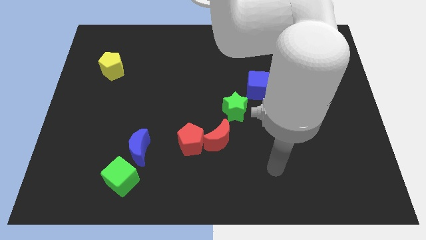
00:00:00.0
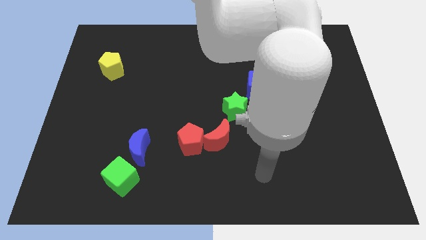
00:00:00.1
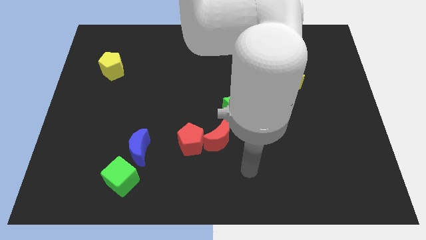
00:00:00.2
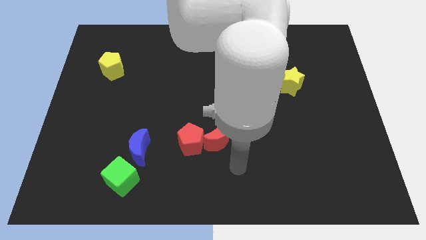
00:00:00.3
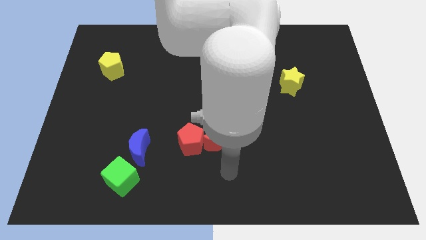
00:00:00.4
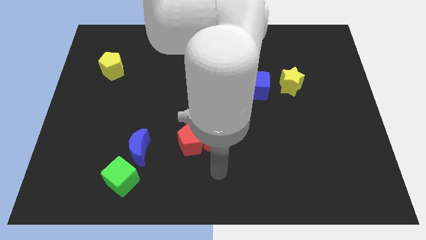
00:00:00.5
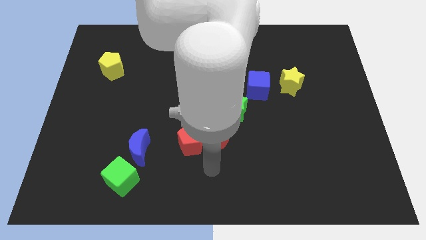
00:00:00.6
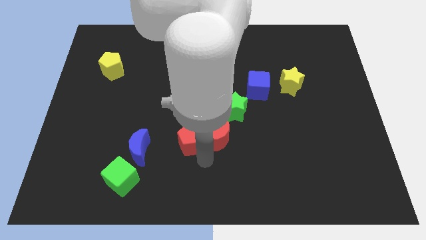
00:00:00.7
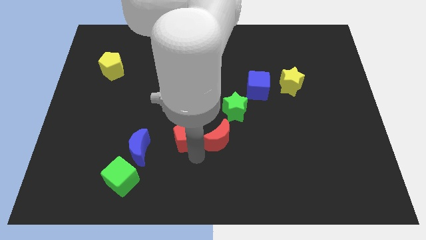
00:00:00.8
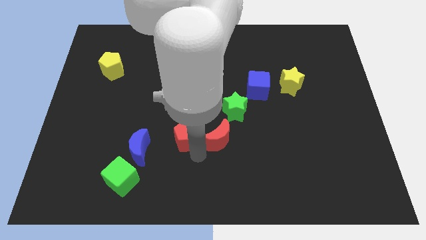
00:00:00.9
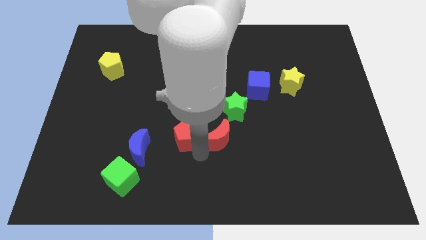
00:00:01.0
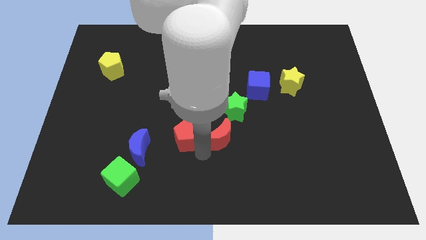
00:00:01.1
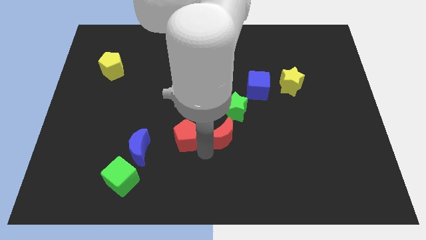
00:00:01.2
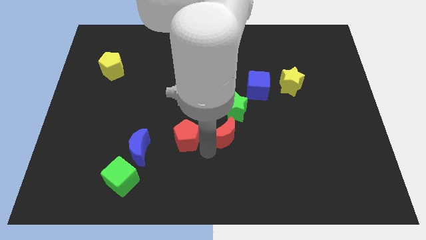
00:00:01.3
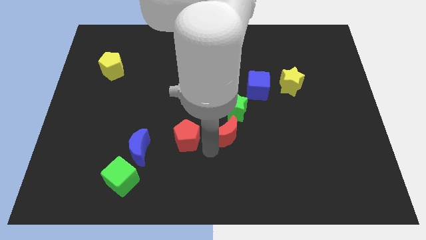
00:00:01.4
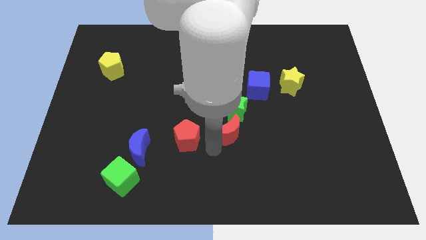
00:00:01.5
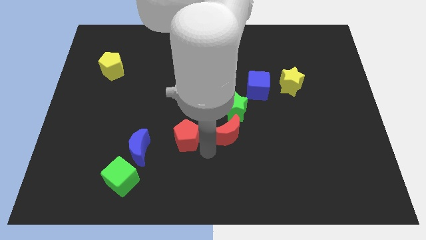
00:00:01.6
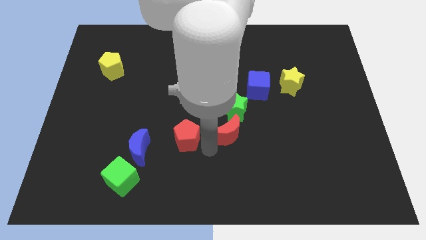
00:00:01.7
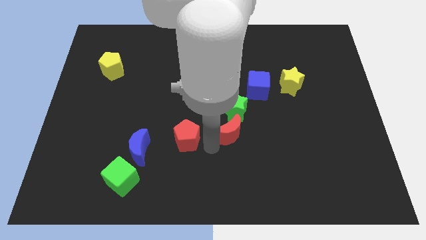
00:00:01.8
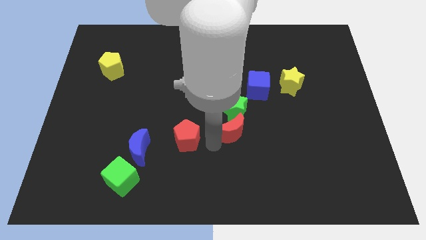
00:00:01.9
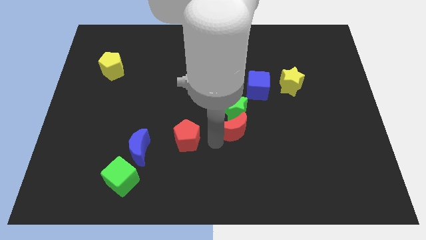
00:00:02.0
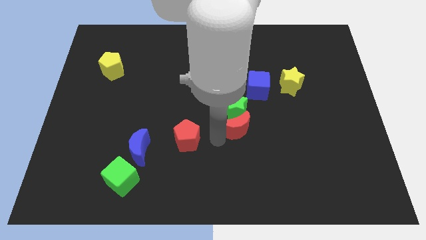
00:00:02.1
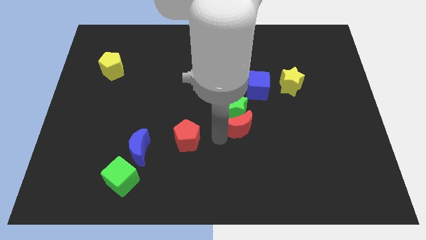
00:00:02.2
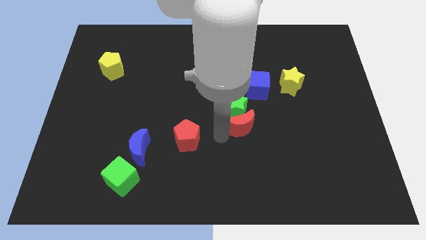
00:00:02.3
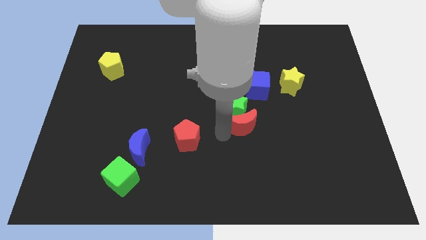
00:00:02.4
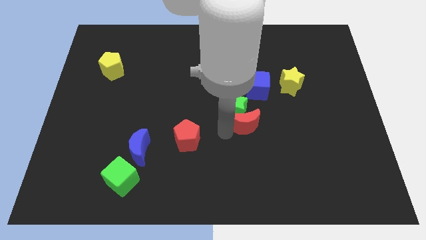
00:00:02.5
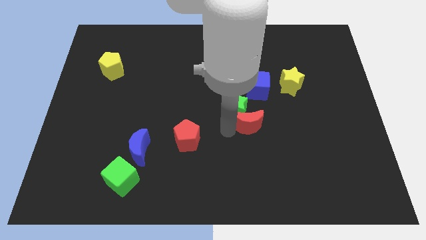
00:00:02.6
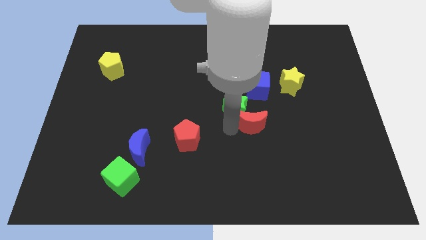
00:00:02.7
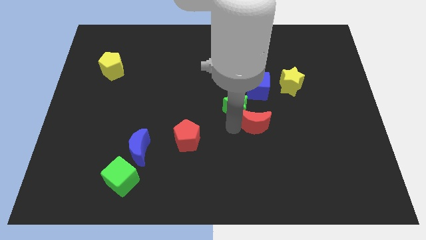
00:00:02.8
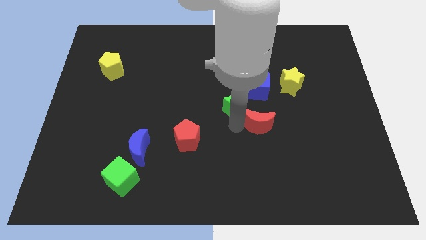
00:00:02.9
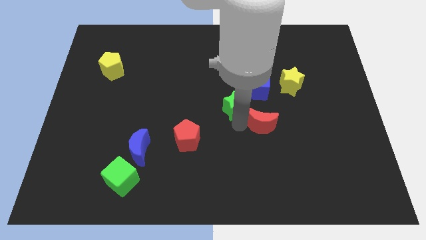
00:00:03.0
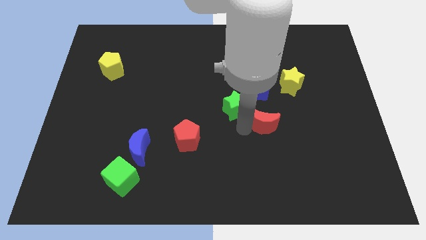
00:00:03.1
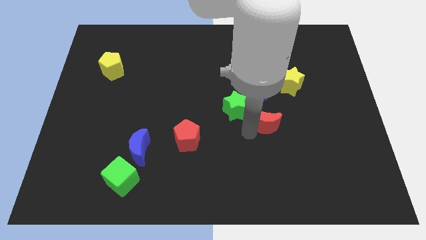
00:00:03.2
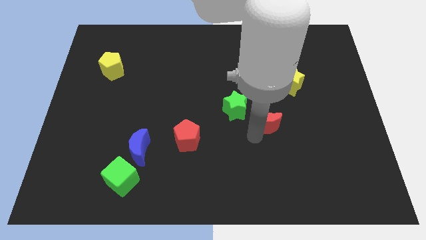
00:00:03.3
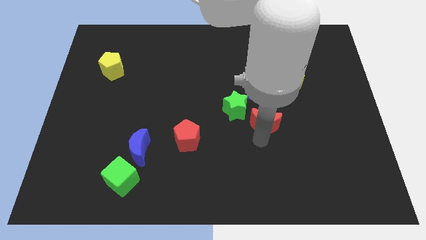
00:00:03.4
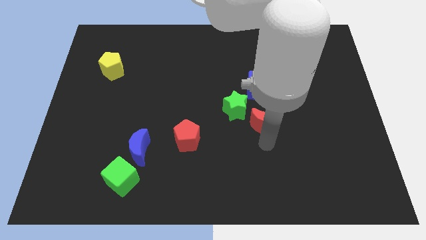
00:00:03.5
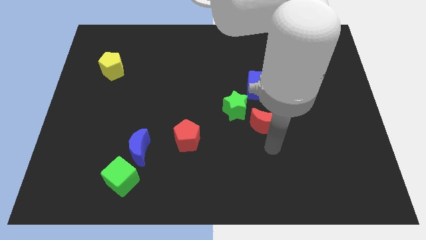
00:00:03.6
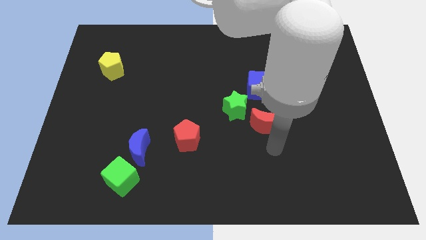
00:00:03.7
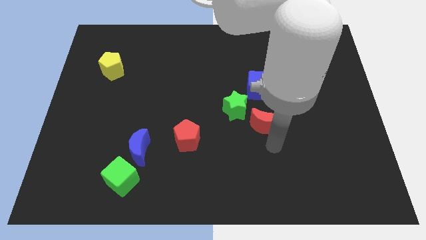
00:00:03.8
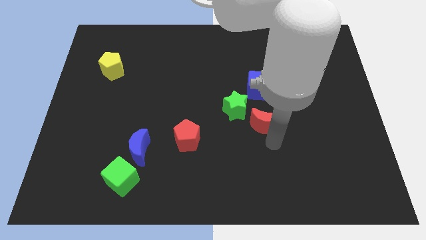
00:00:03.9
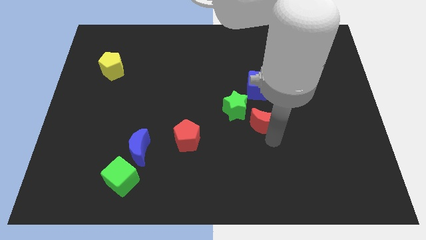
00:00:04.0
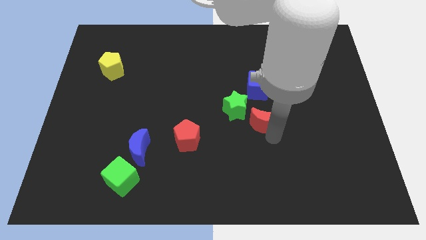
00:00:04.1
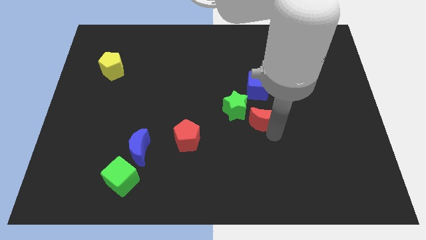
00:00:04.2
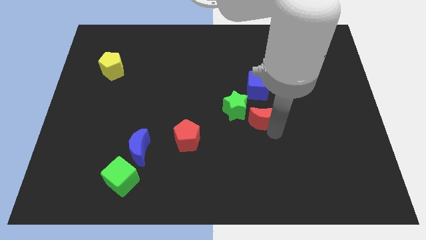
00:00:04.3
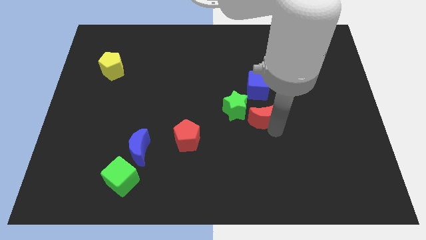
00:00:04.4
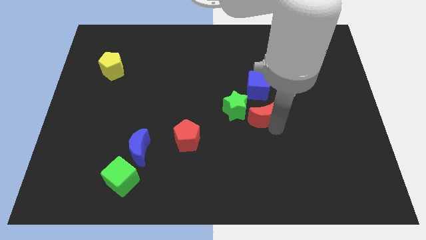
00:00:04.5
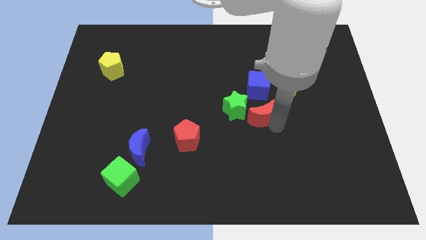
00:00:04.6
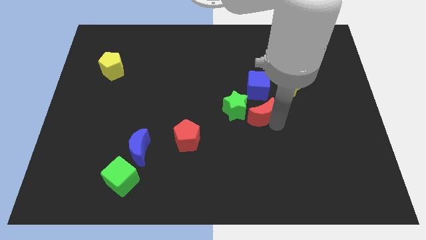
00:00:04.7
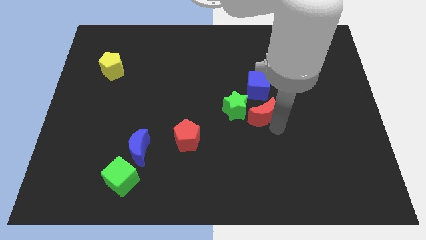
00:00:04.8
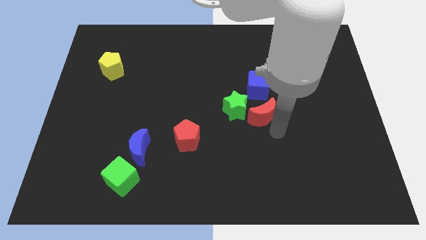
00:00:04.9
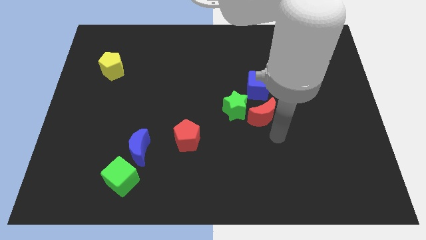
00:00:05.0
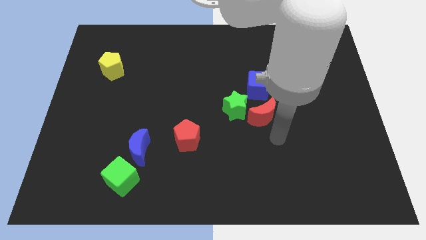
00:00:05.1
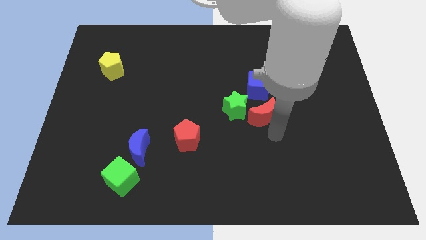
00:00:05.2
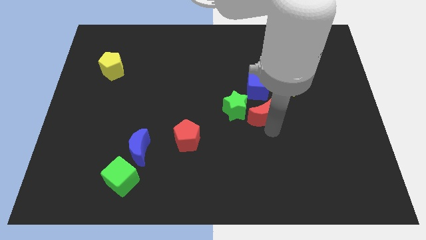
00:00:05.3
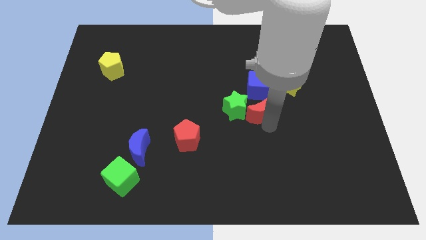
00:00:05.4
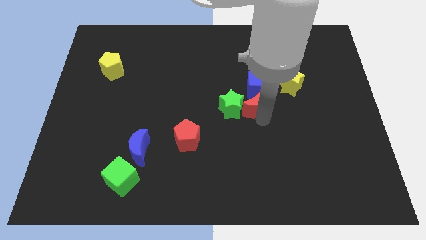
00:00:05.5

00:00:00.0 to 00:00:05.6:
slide the red moon to the blue cube

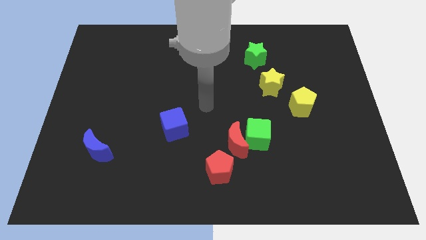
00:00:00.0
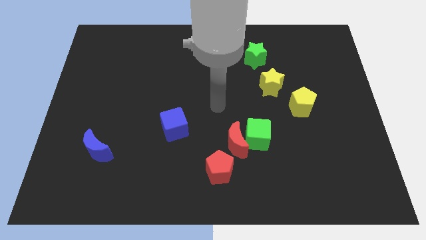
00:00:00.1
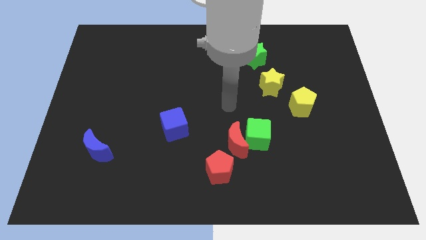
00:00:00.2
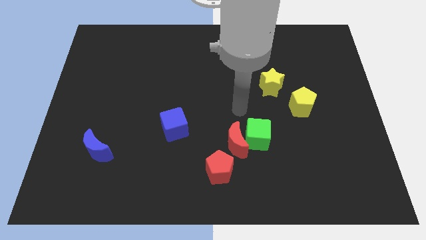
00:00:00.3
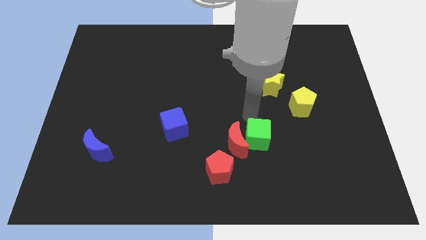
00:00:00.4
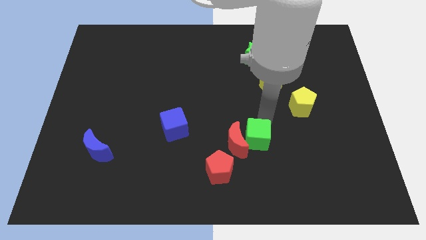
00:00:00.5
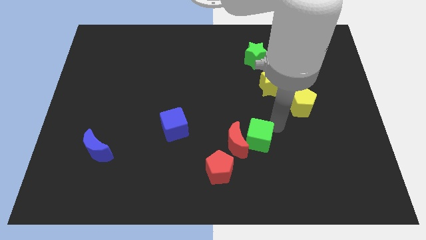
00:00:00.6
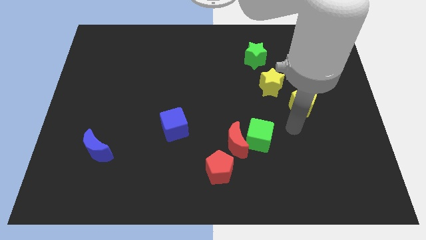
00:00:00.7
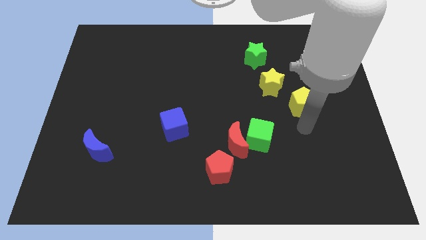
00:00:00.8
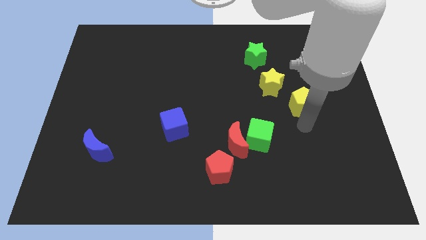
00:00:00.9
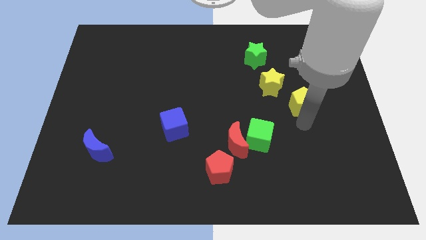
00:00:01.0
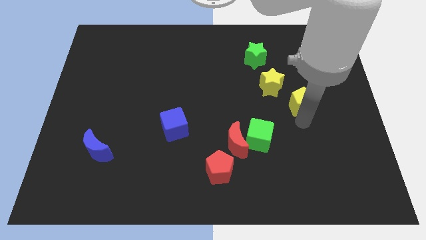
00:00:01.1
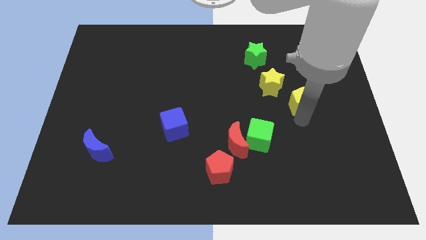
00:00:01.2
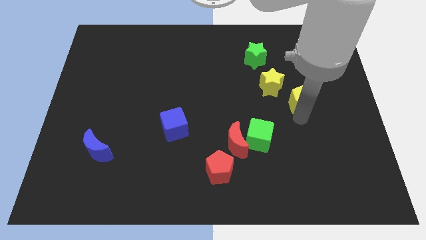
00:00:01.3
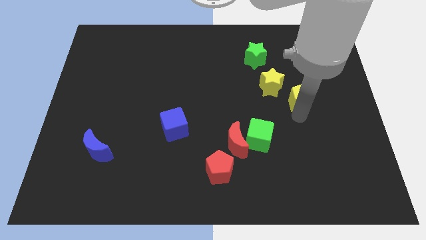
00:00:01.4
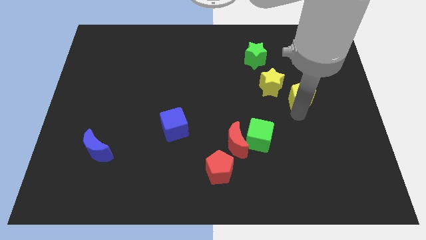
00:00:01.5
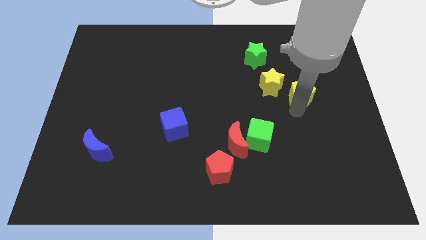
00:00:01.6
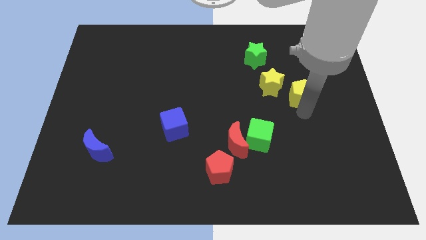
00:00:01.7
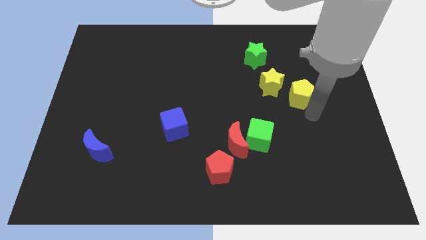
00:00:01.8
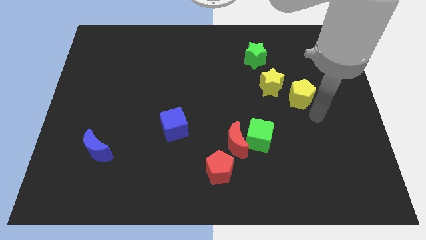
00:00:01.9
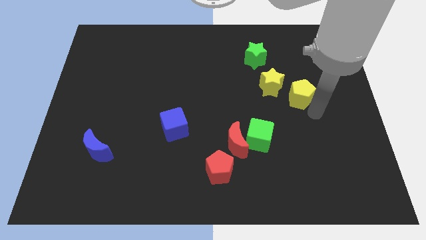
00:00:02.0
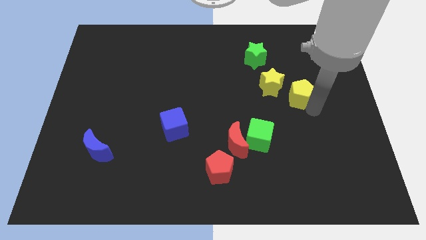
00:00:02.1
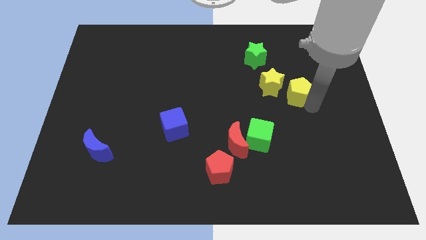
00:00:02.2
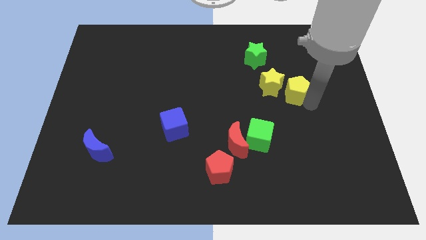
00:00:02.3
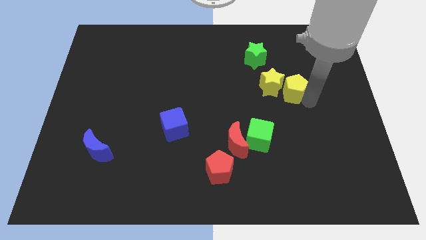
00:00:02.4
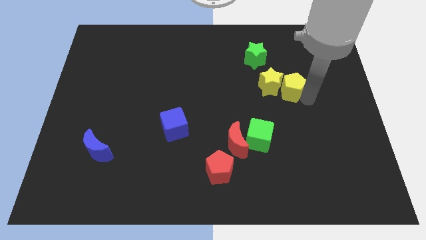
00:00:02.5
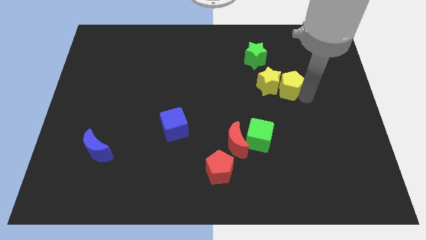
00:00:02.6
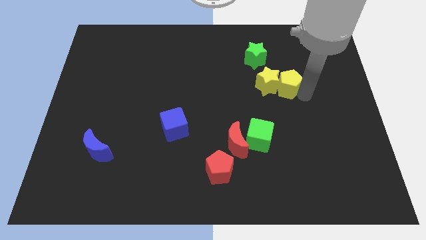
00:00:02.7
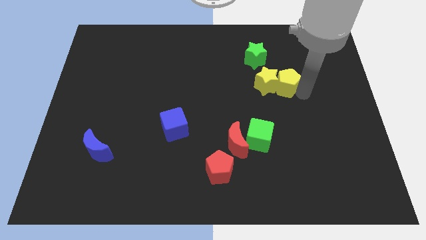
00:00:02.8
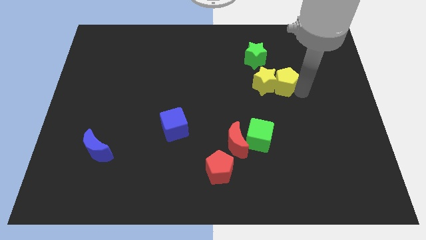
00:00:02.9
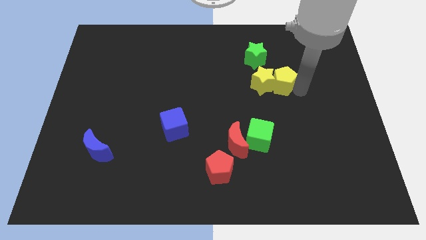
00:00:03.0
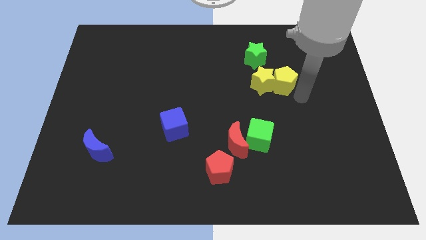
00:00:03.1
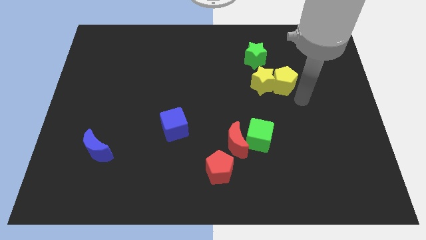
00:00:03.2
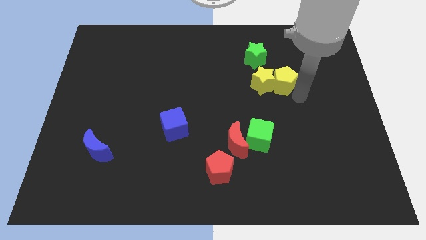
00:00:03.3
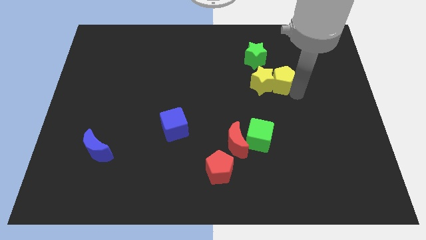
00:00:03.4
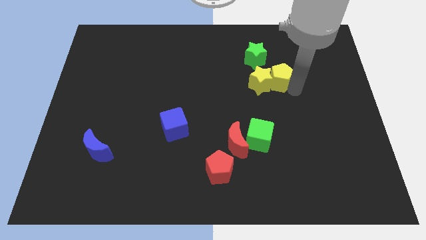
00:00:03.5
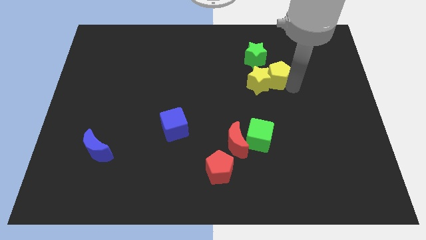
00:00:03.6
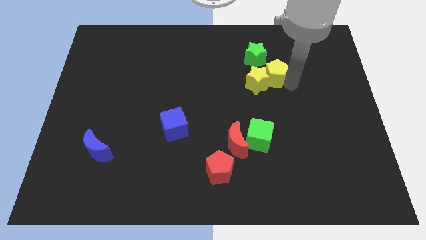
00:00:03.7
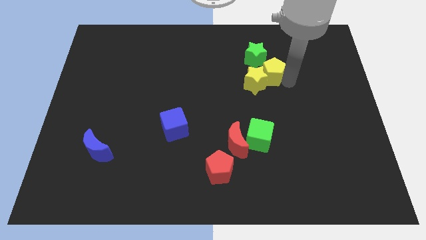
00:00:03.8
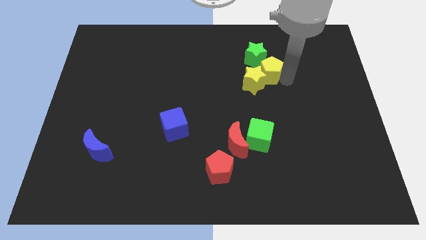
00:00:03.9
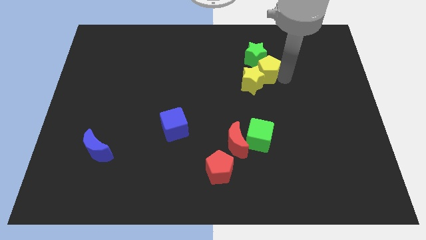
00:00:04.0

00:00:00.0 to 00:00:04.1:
move the yellow pentagon close to the green star
